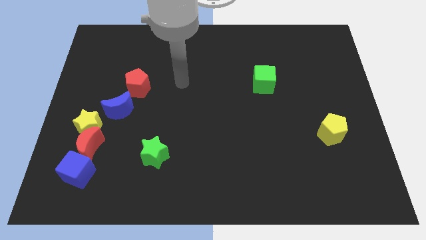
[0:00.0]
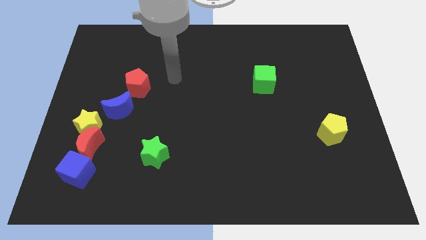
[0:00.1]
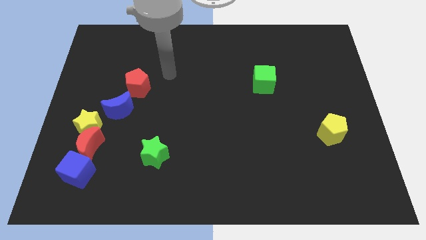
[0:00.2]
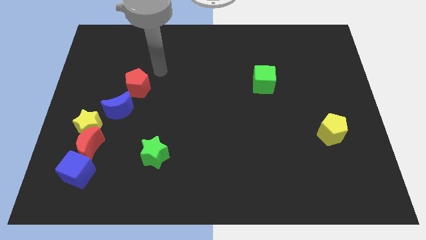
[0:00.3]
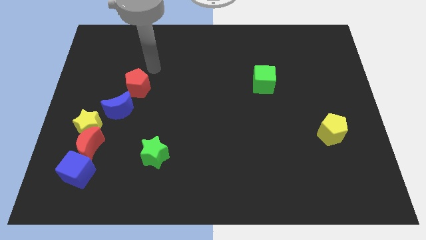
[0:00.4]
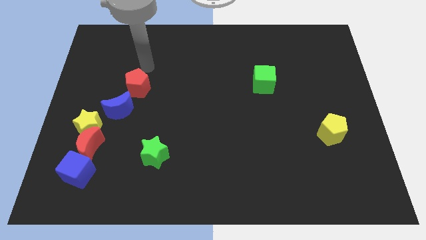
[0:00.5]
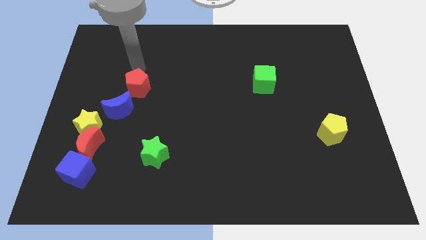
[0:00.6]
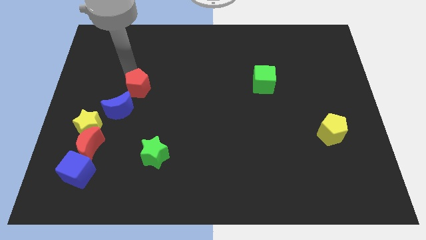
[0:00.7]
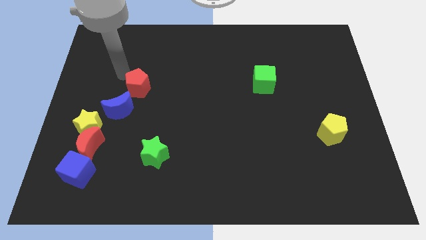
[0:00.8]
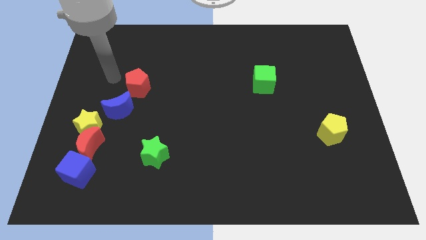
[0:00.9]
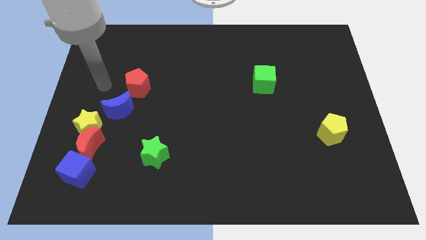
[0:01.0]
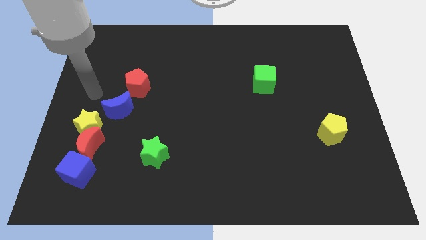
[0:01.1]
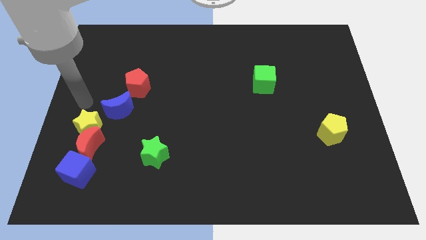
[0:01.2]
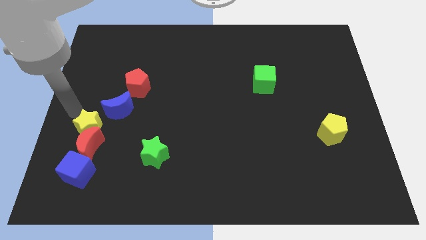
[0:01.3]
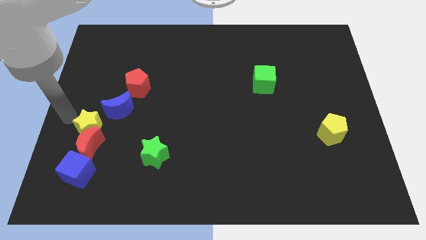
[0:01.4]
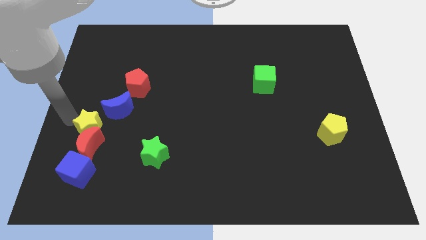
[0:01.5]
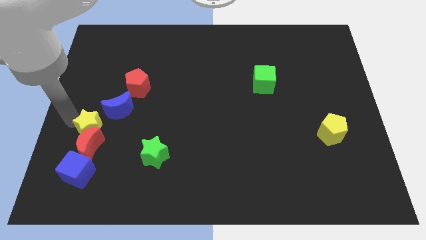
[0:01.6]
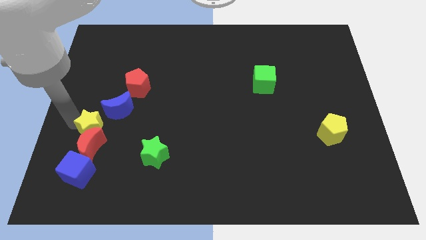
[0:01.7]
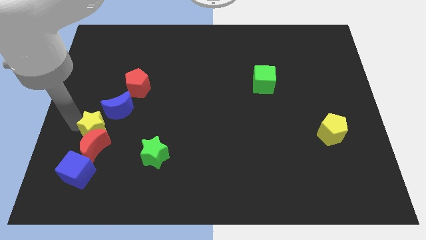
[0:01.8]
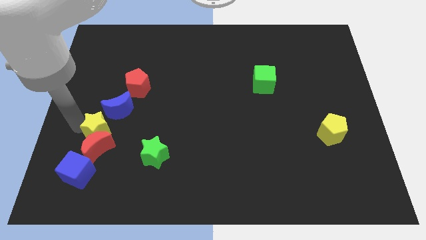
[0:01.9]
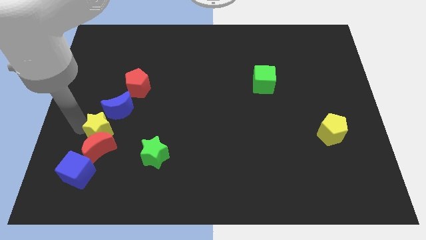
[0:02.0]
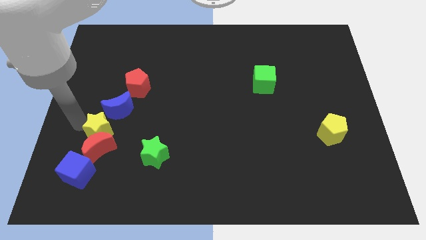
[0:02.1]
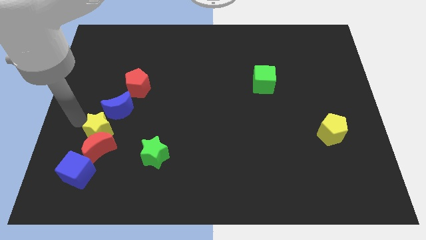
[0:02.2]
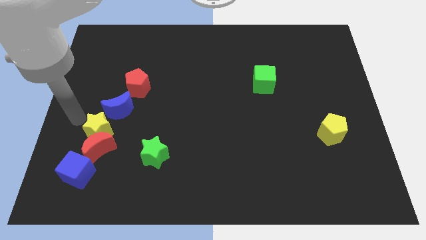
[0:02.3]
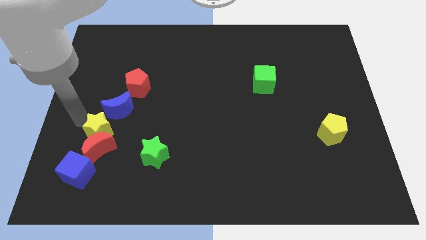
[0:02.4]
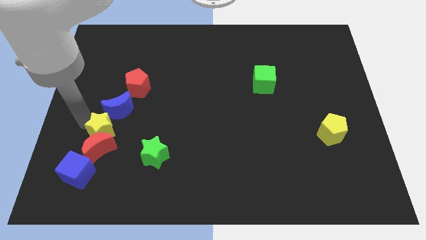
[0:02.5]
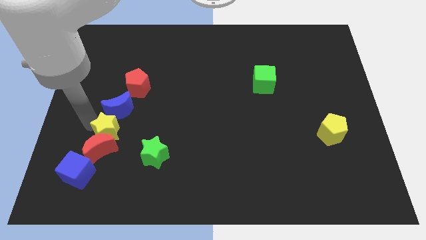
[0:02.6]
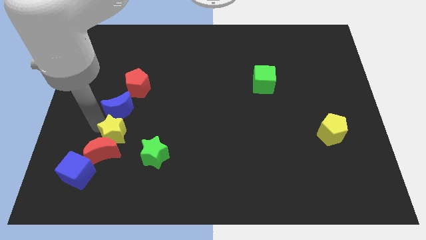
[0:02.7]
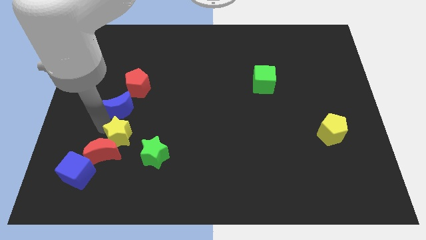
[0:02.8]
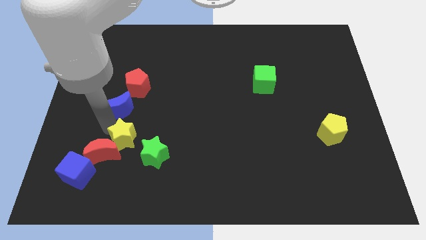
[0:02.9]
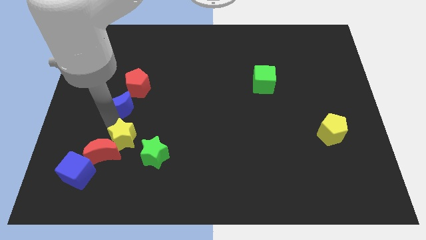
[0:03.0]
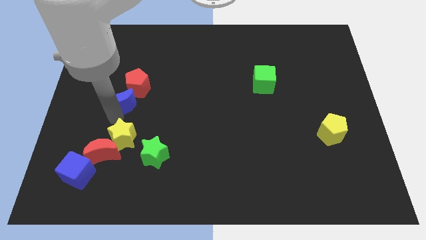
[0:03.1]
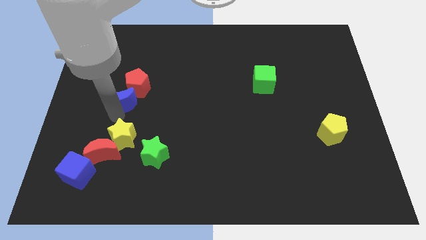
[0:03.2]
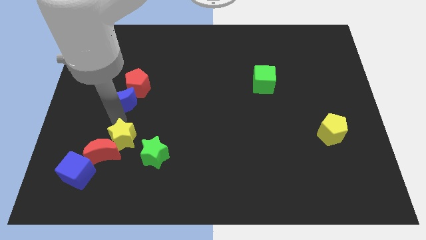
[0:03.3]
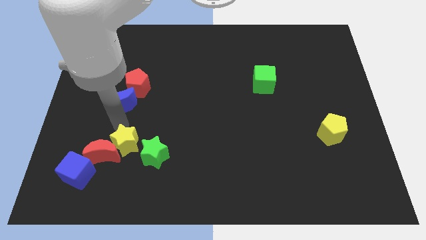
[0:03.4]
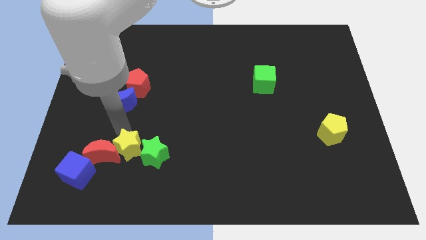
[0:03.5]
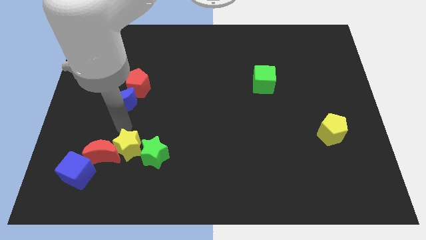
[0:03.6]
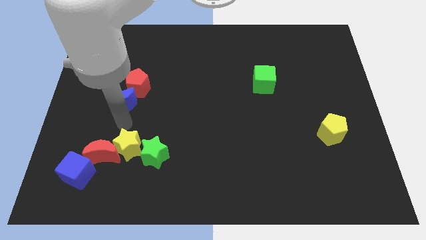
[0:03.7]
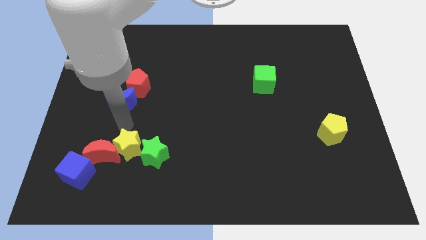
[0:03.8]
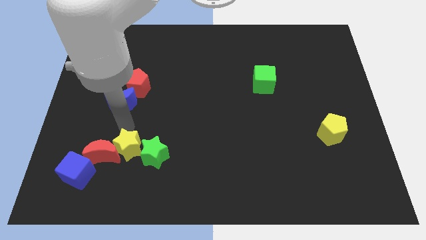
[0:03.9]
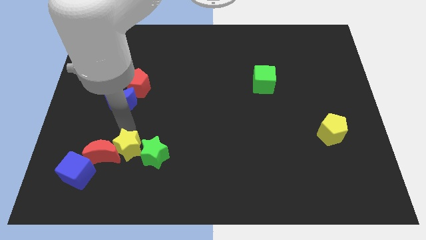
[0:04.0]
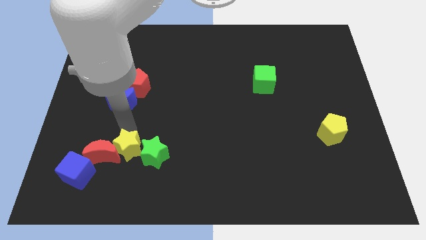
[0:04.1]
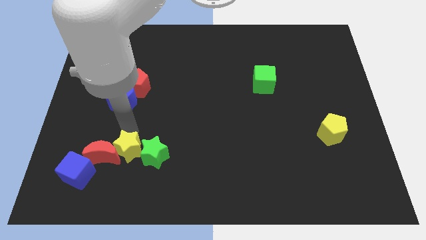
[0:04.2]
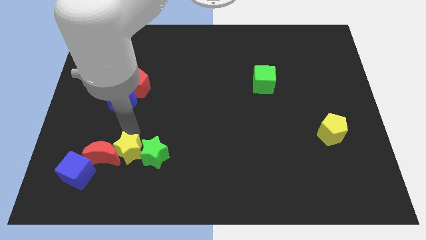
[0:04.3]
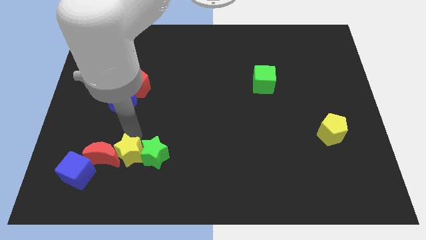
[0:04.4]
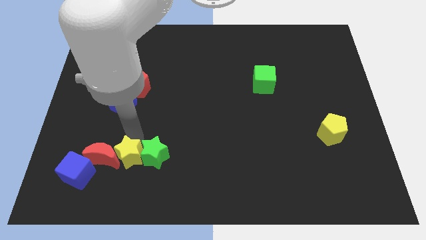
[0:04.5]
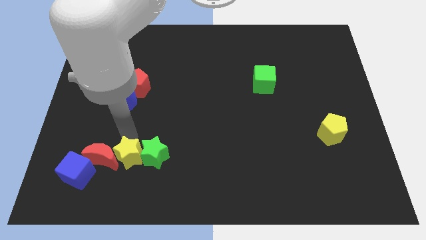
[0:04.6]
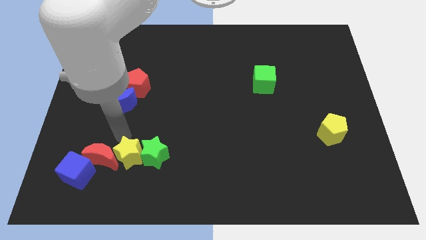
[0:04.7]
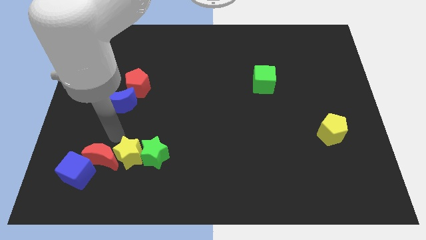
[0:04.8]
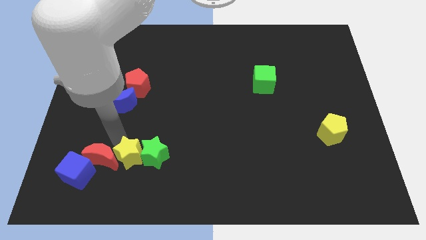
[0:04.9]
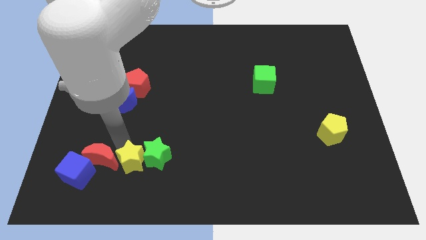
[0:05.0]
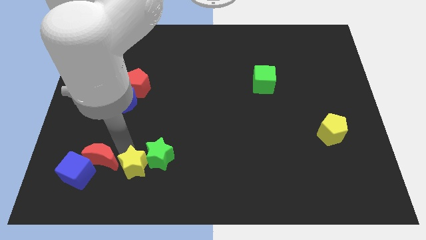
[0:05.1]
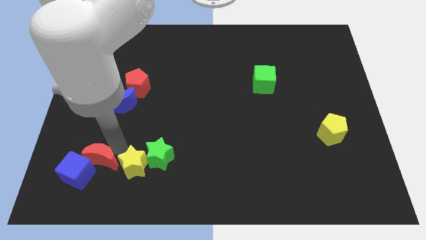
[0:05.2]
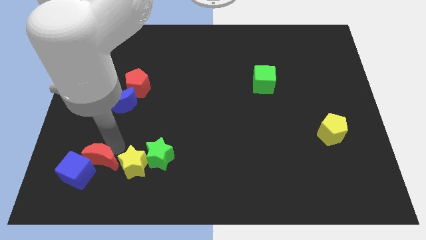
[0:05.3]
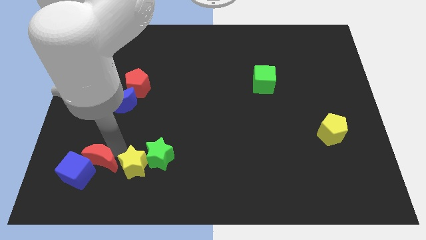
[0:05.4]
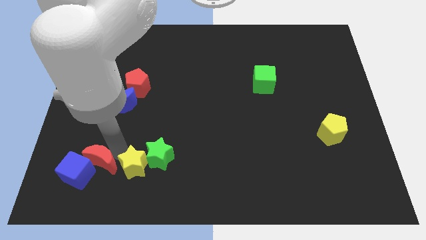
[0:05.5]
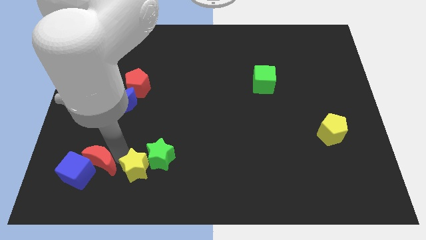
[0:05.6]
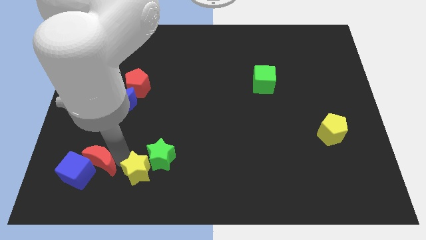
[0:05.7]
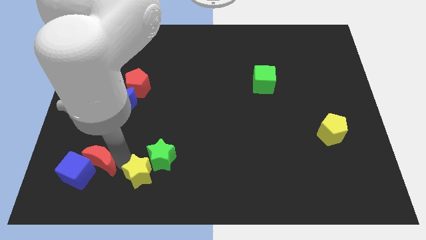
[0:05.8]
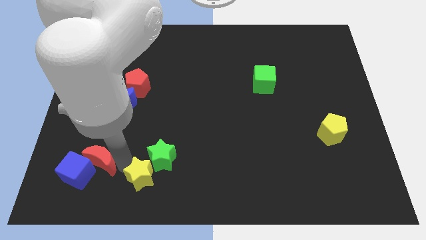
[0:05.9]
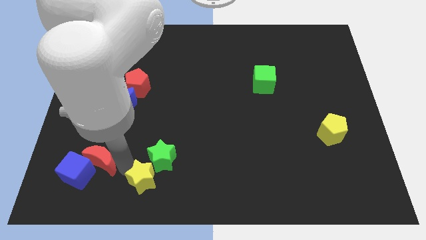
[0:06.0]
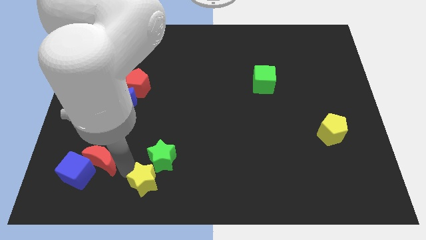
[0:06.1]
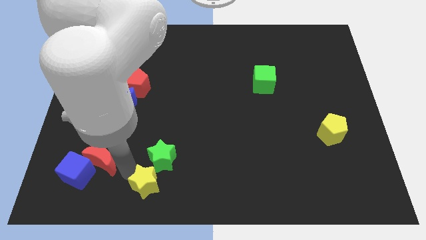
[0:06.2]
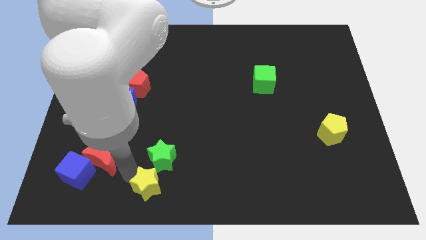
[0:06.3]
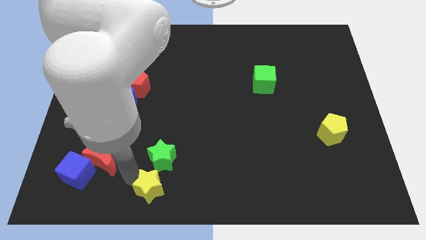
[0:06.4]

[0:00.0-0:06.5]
push the yellow star to the bottom side
